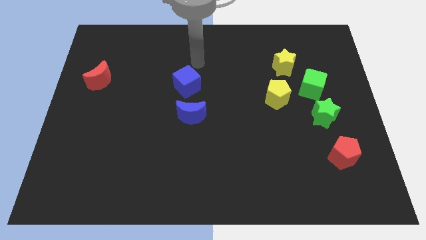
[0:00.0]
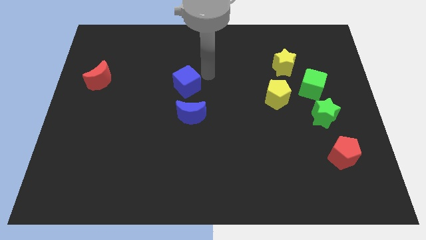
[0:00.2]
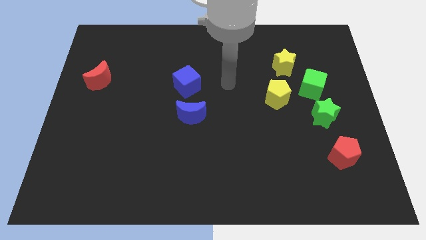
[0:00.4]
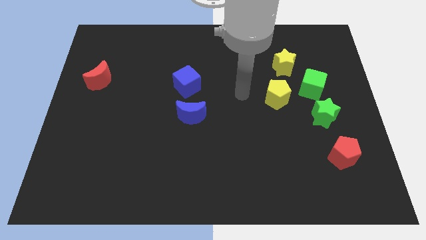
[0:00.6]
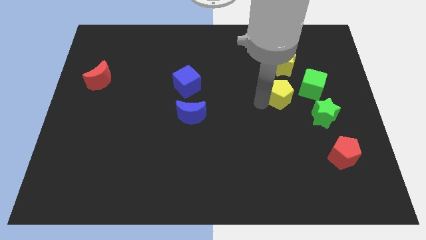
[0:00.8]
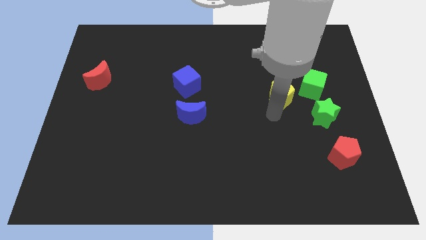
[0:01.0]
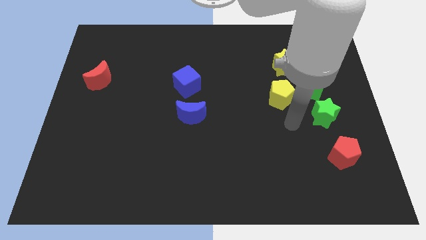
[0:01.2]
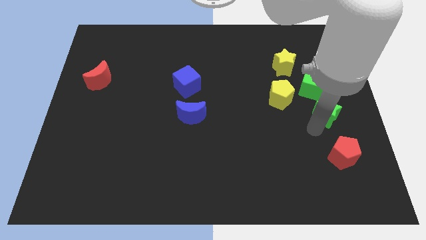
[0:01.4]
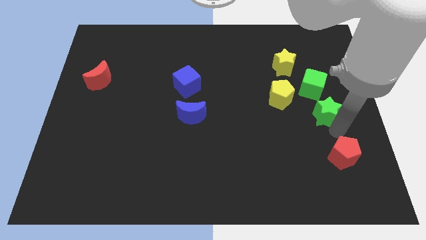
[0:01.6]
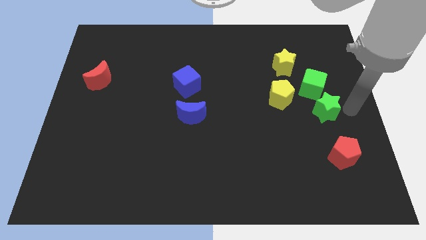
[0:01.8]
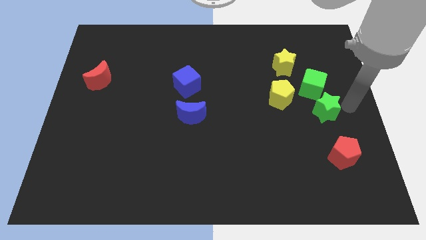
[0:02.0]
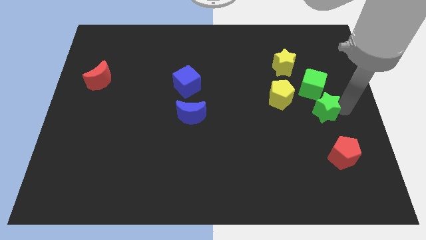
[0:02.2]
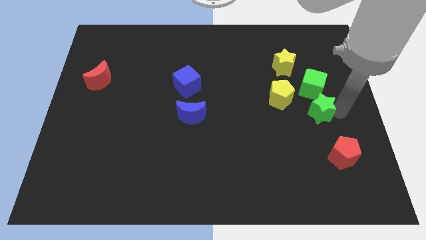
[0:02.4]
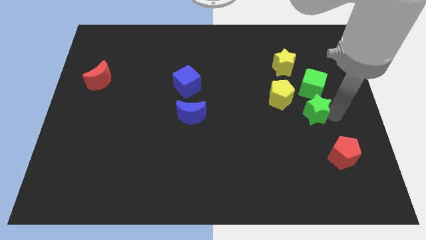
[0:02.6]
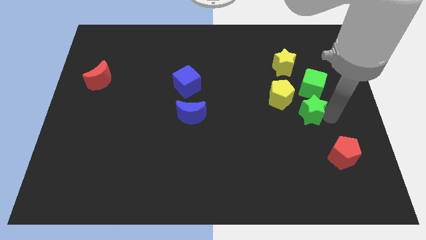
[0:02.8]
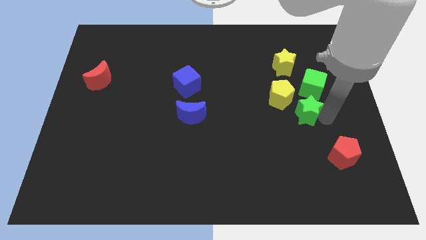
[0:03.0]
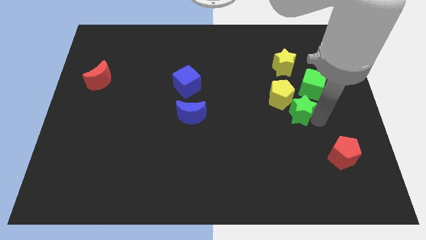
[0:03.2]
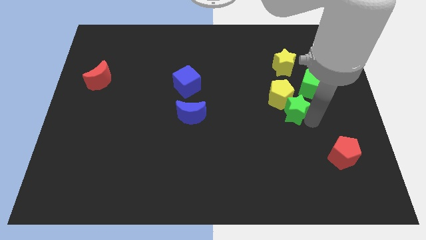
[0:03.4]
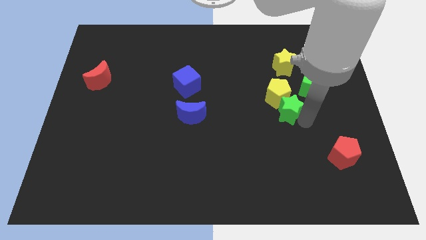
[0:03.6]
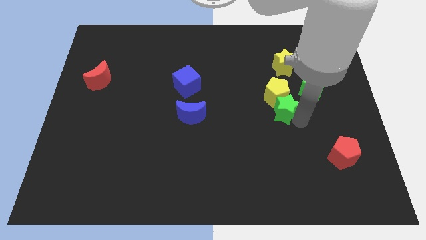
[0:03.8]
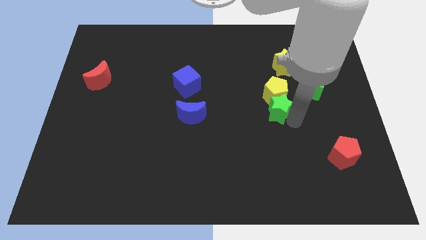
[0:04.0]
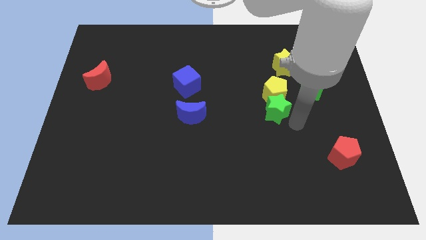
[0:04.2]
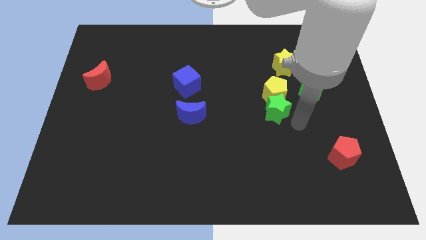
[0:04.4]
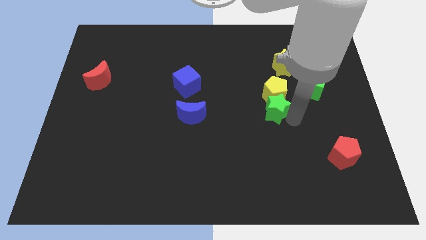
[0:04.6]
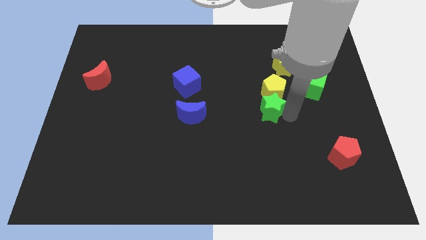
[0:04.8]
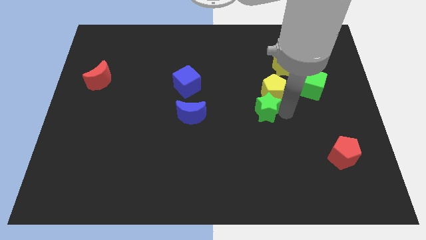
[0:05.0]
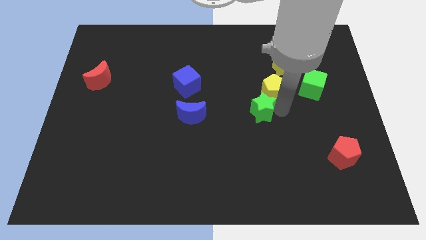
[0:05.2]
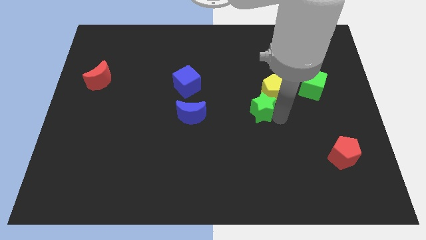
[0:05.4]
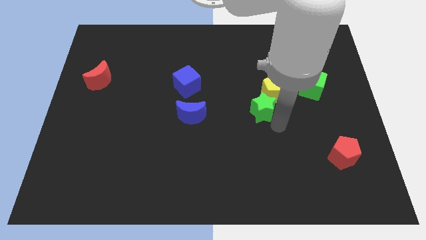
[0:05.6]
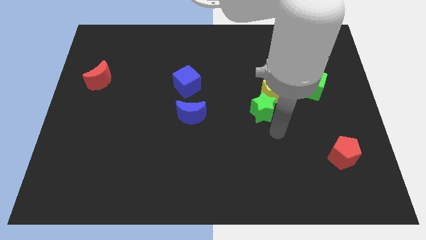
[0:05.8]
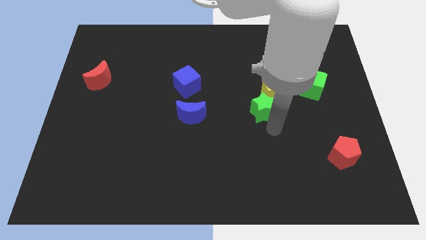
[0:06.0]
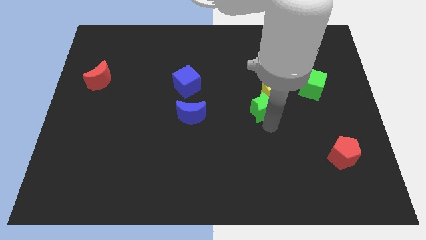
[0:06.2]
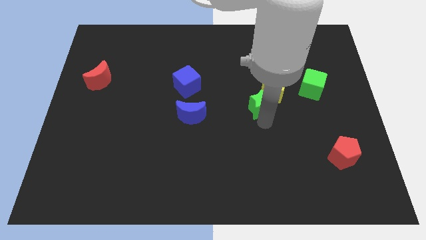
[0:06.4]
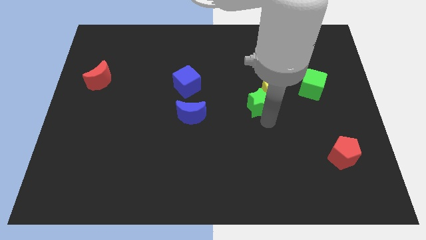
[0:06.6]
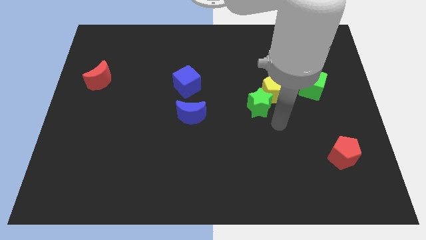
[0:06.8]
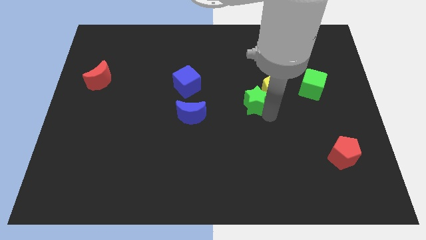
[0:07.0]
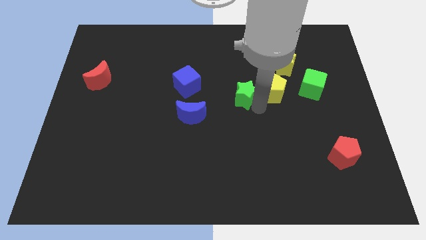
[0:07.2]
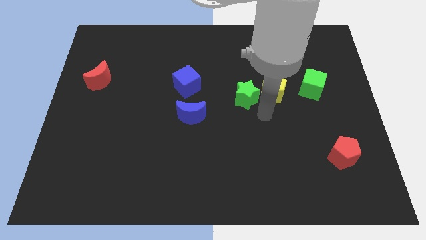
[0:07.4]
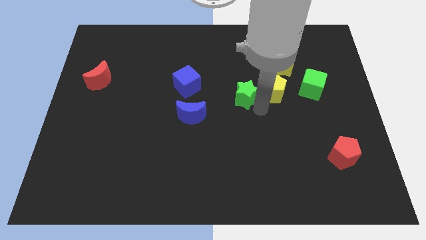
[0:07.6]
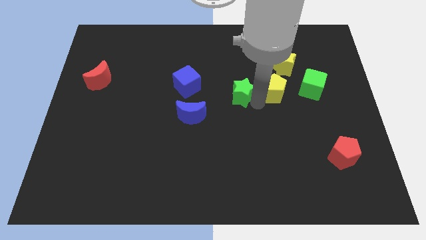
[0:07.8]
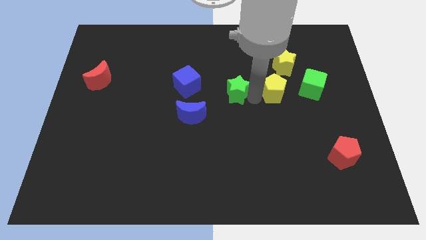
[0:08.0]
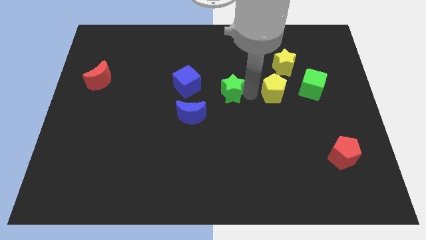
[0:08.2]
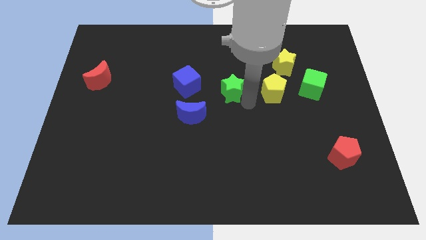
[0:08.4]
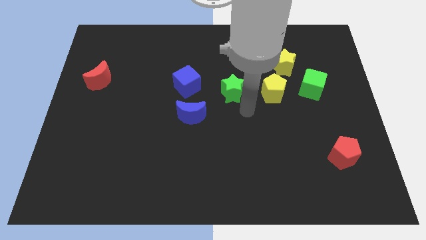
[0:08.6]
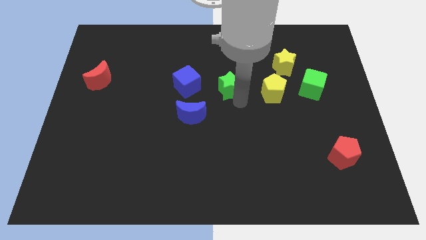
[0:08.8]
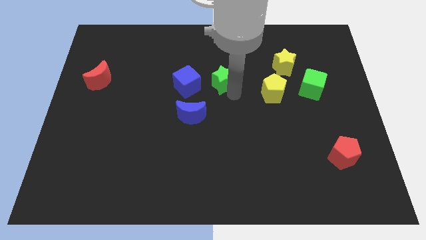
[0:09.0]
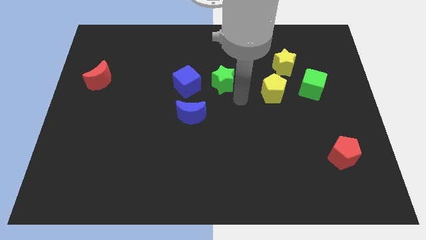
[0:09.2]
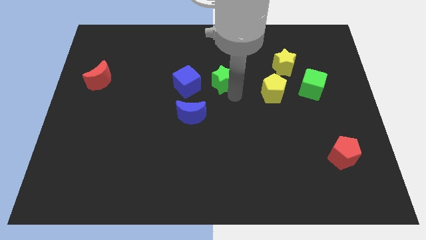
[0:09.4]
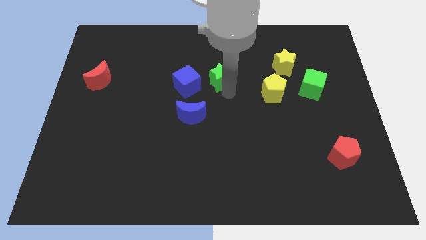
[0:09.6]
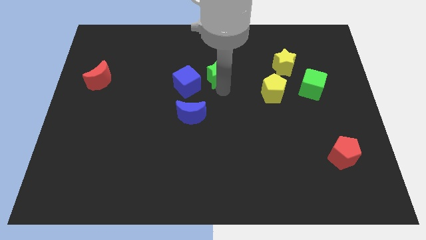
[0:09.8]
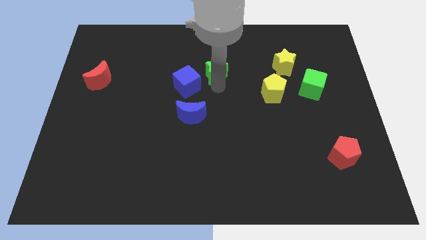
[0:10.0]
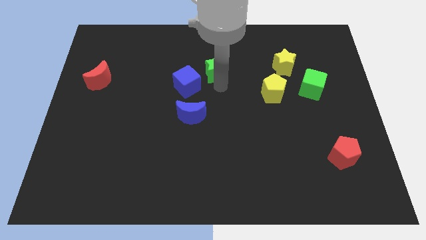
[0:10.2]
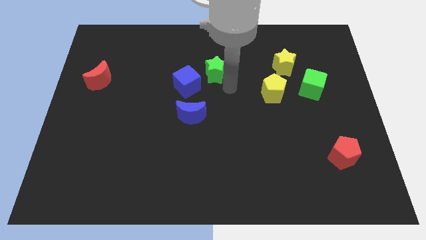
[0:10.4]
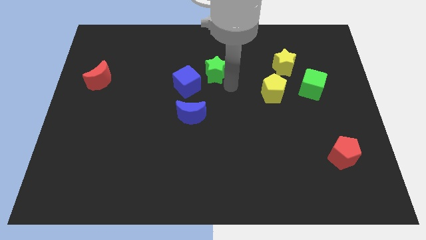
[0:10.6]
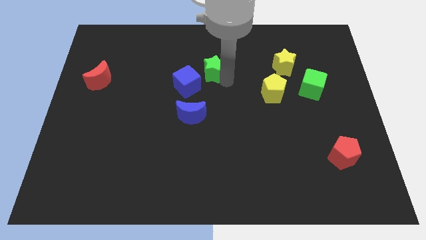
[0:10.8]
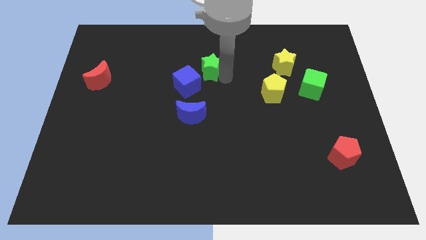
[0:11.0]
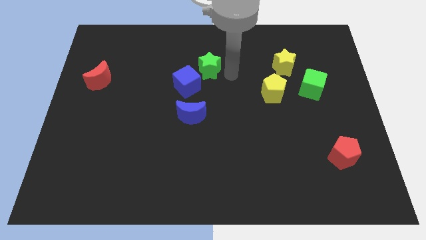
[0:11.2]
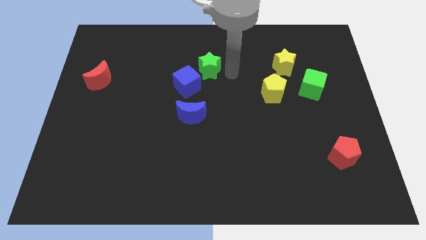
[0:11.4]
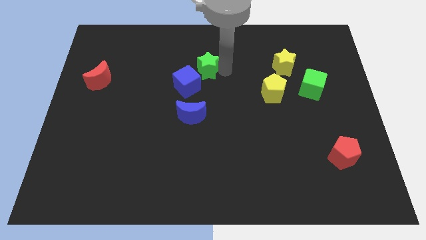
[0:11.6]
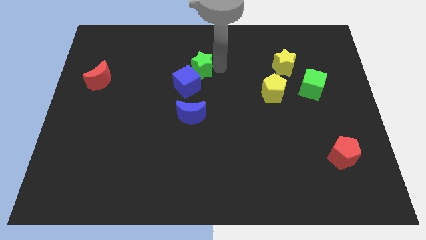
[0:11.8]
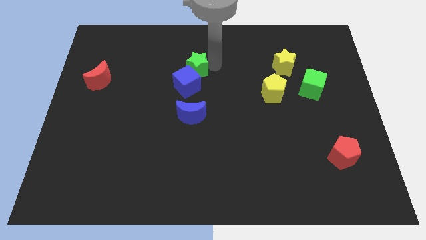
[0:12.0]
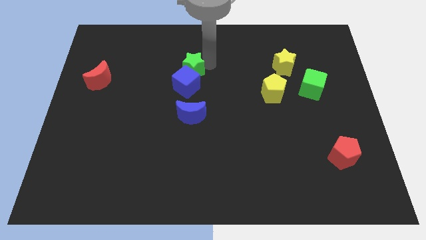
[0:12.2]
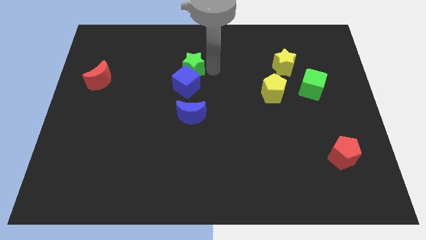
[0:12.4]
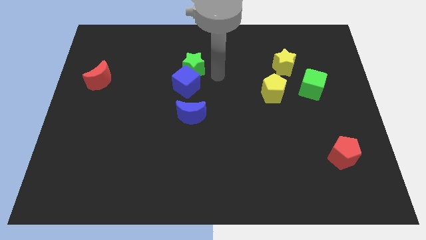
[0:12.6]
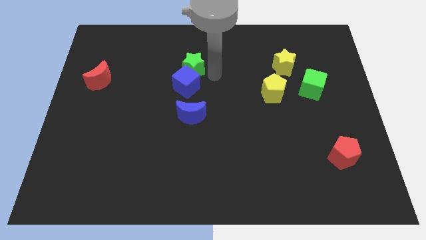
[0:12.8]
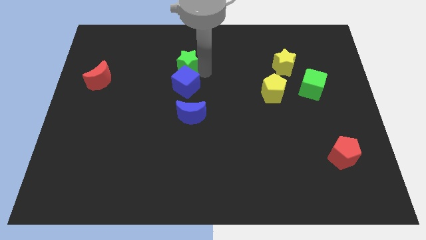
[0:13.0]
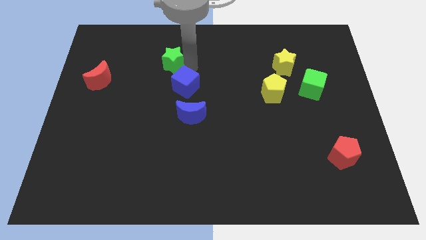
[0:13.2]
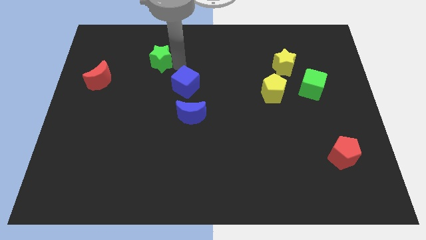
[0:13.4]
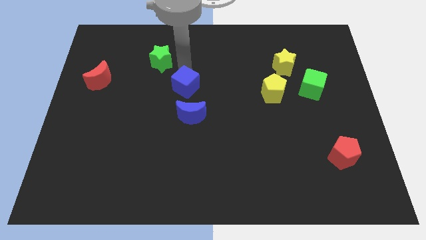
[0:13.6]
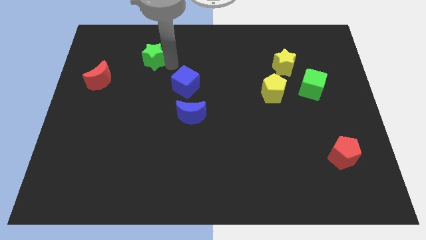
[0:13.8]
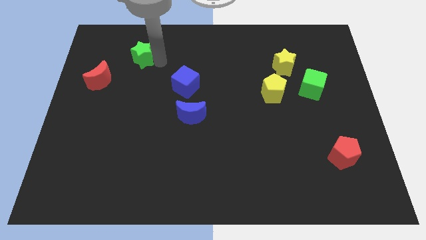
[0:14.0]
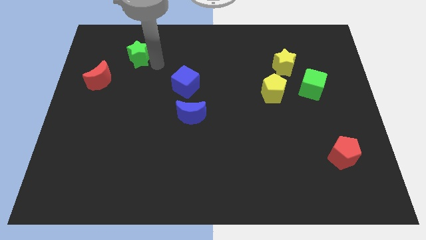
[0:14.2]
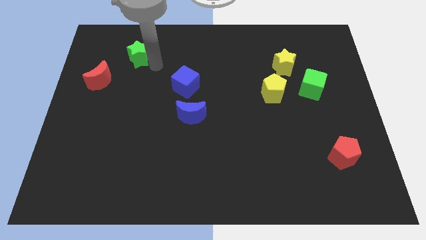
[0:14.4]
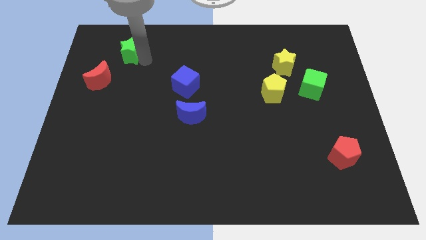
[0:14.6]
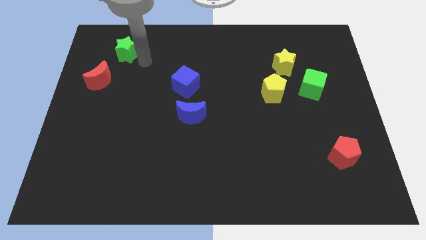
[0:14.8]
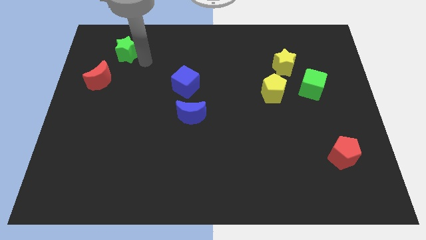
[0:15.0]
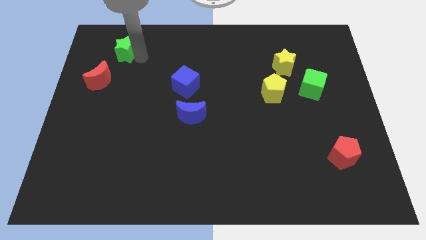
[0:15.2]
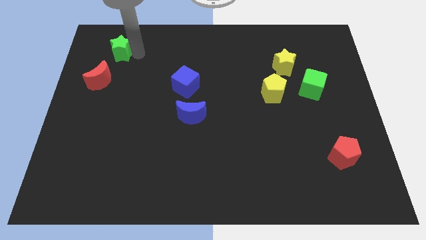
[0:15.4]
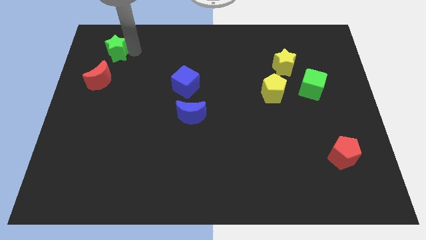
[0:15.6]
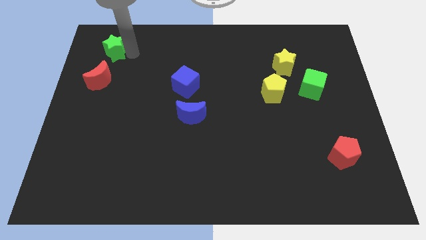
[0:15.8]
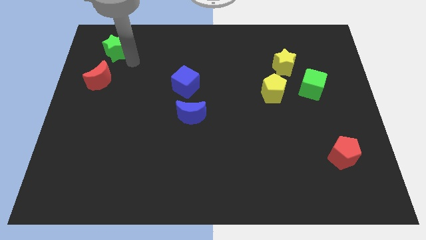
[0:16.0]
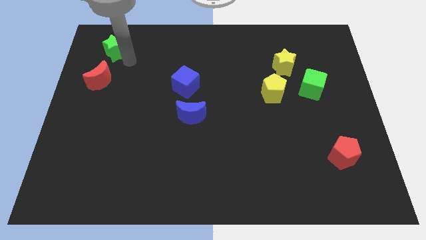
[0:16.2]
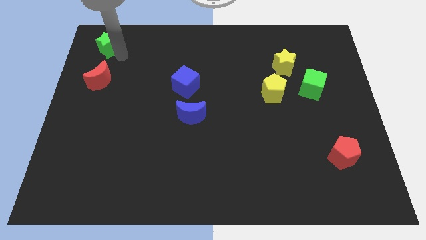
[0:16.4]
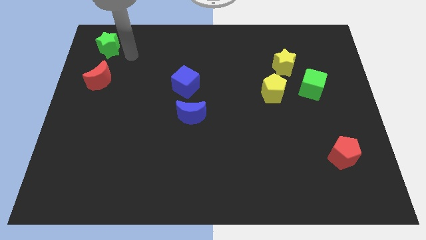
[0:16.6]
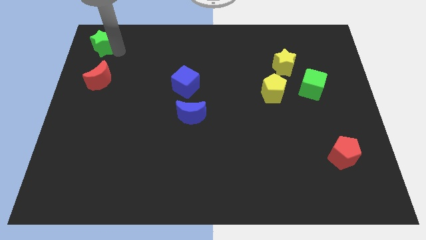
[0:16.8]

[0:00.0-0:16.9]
put the green star to the top left
